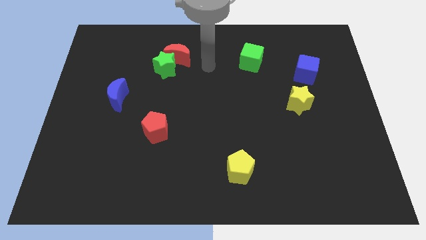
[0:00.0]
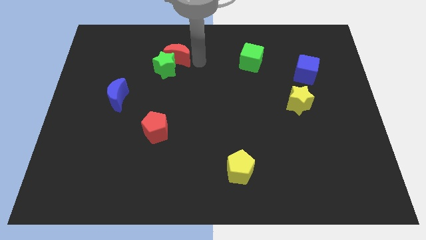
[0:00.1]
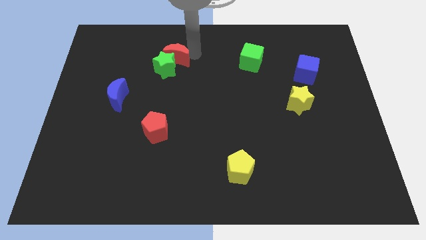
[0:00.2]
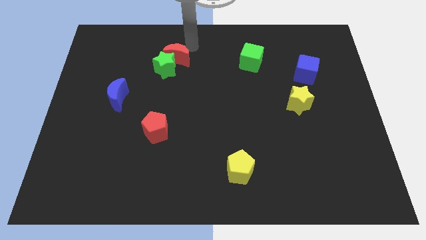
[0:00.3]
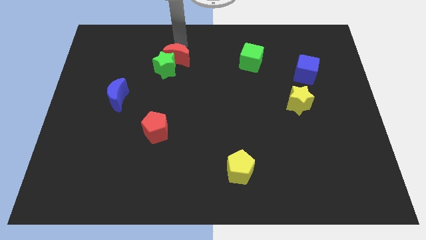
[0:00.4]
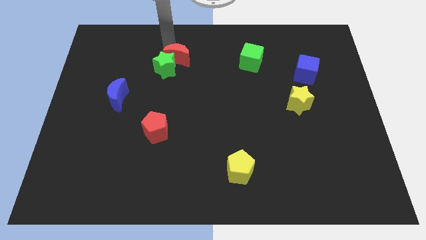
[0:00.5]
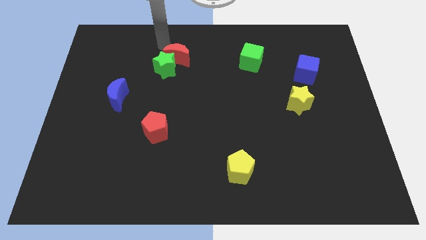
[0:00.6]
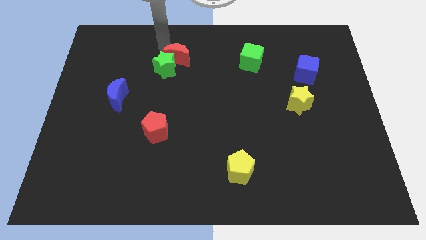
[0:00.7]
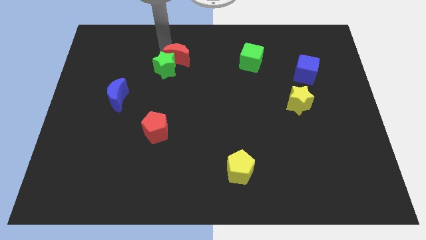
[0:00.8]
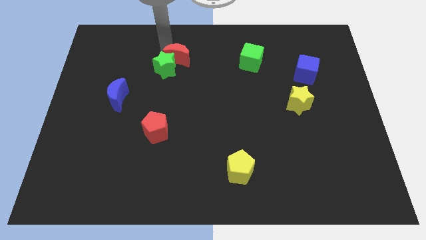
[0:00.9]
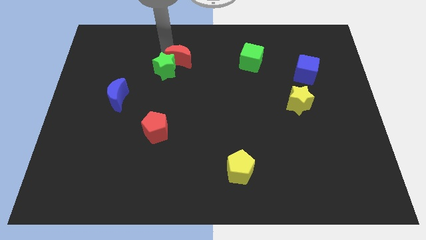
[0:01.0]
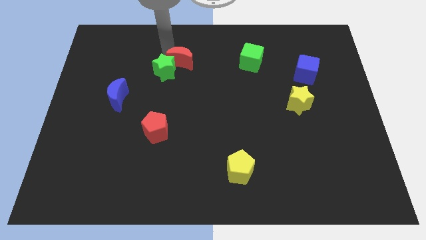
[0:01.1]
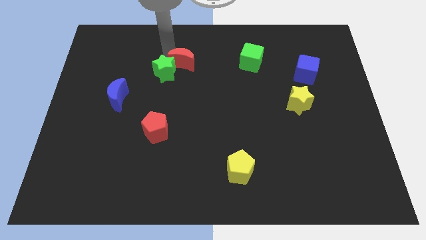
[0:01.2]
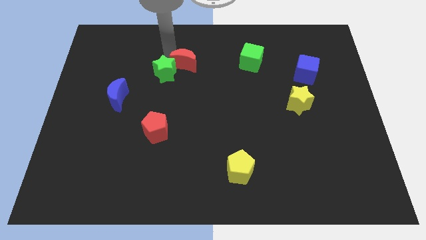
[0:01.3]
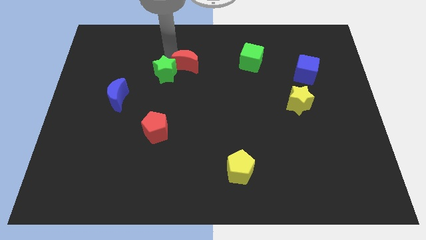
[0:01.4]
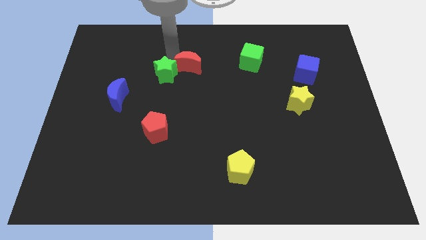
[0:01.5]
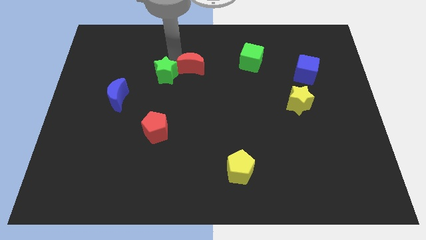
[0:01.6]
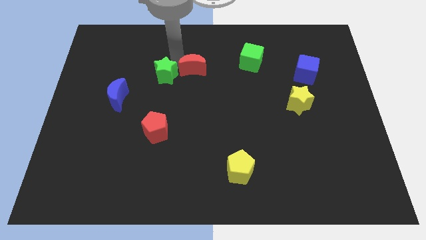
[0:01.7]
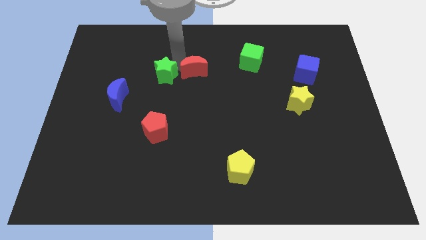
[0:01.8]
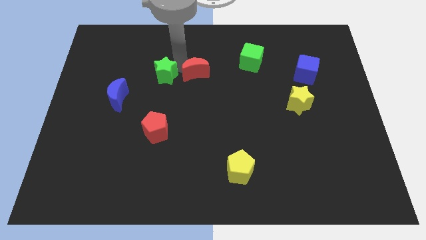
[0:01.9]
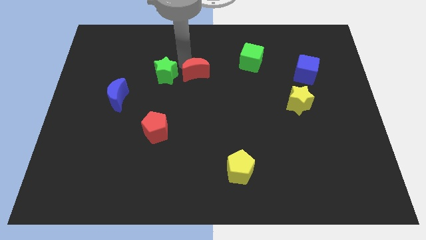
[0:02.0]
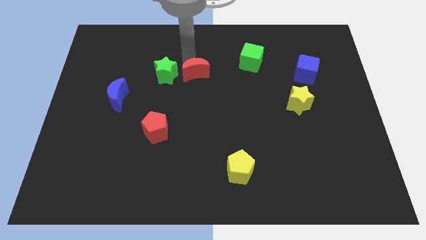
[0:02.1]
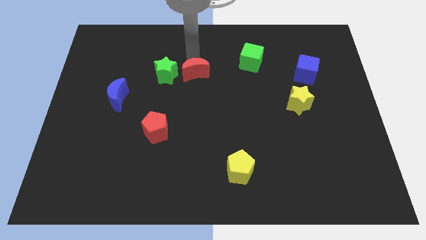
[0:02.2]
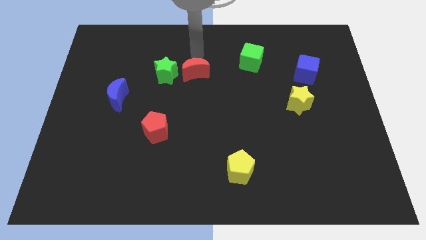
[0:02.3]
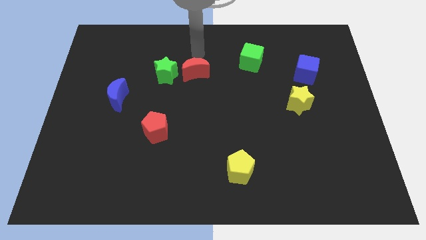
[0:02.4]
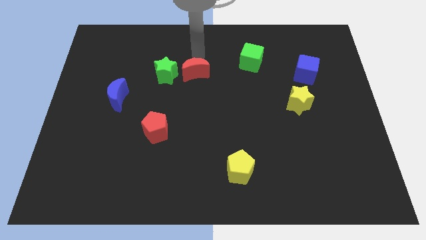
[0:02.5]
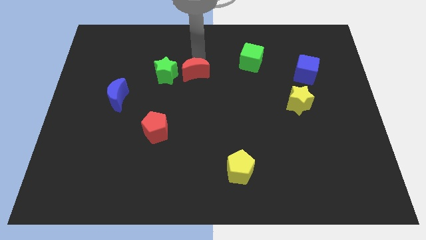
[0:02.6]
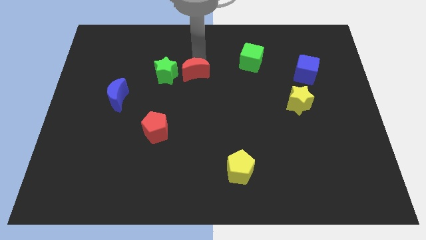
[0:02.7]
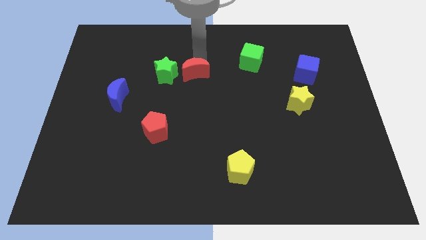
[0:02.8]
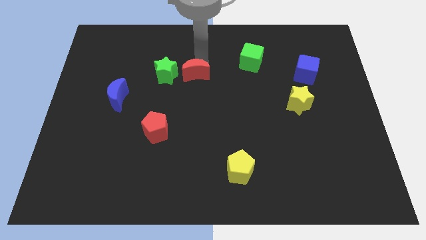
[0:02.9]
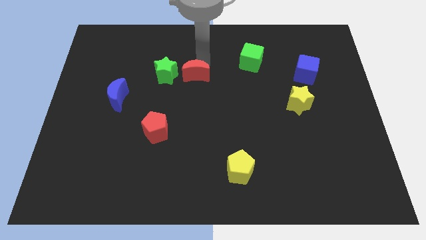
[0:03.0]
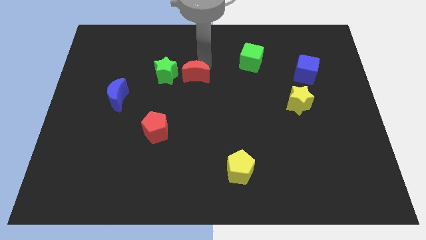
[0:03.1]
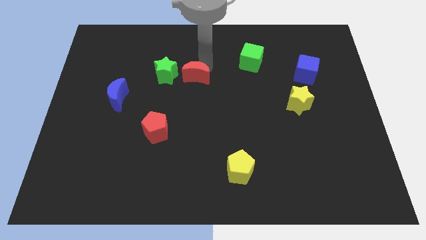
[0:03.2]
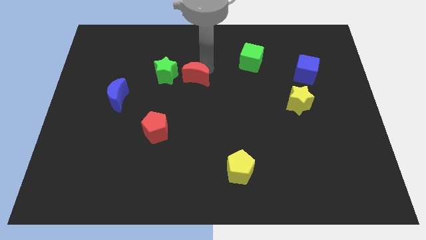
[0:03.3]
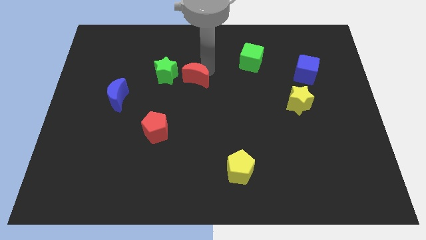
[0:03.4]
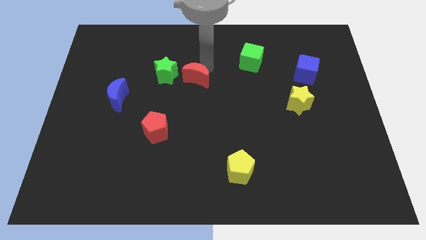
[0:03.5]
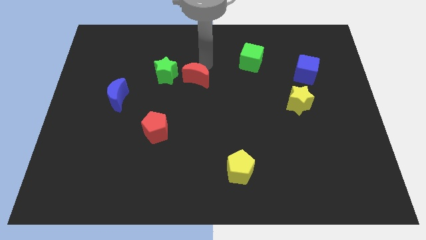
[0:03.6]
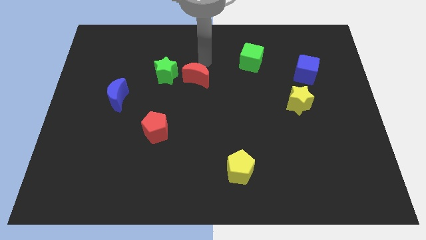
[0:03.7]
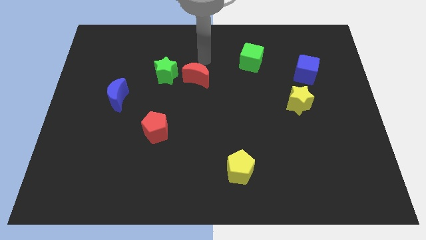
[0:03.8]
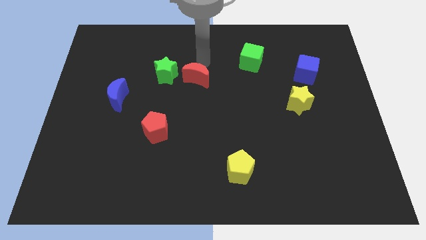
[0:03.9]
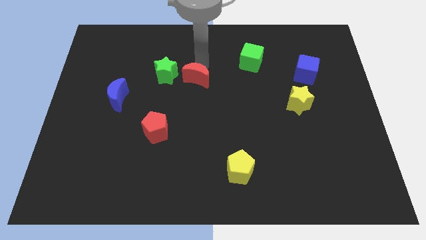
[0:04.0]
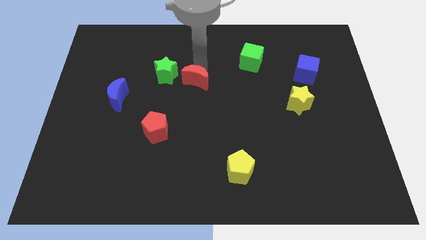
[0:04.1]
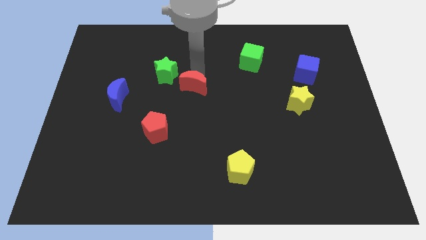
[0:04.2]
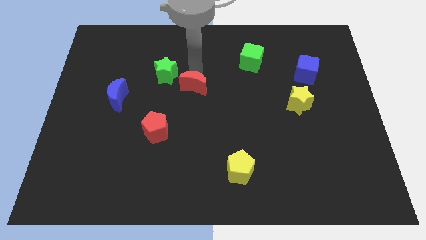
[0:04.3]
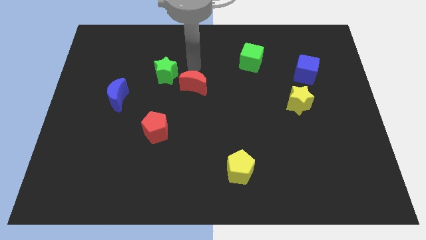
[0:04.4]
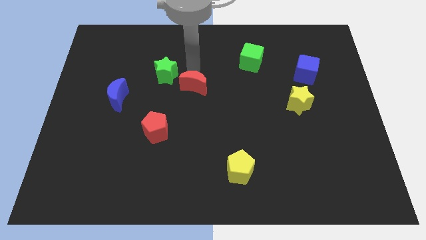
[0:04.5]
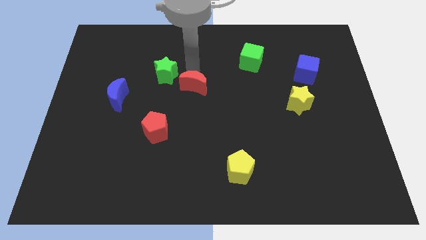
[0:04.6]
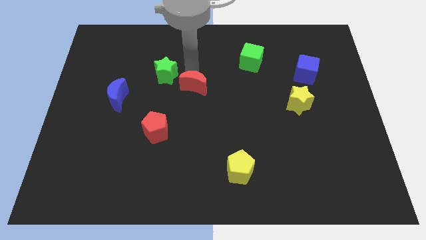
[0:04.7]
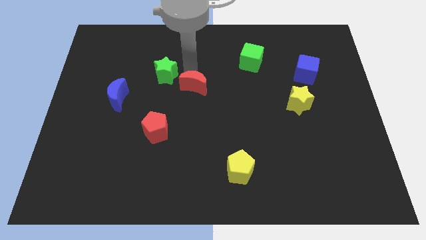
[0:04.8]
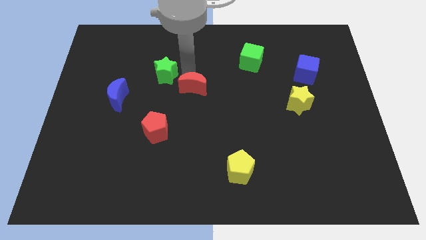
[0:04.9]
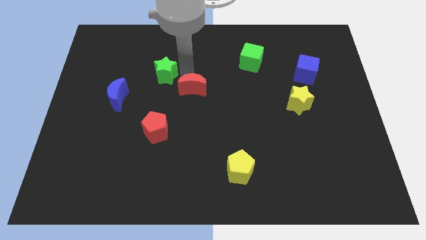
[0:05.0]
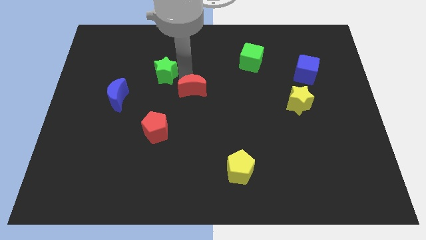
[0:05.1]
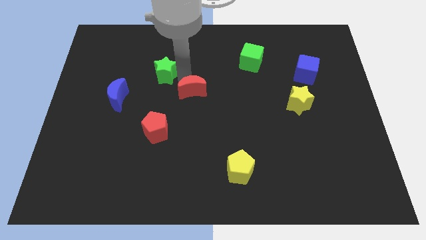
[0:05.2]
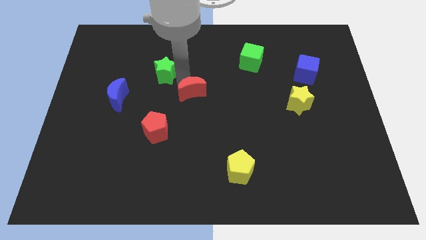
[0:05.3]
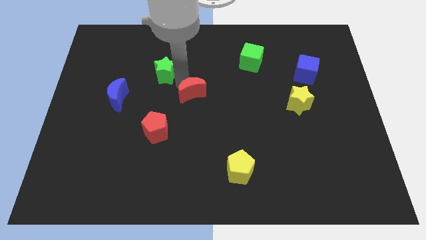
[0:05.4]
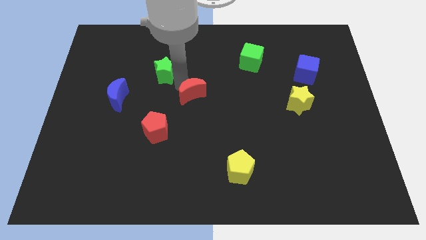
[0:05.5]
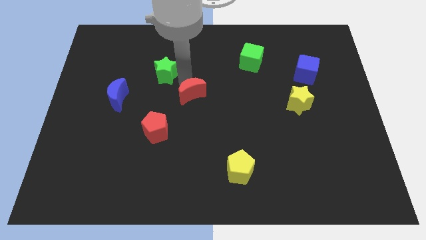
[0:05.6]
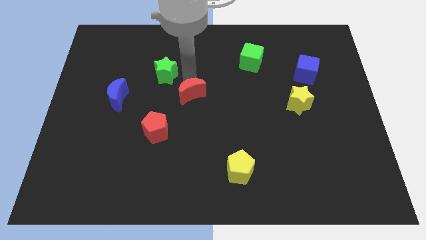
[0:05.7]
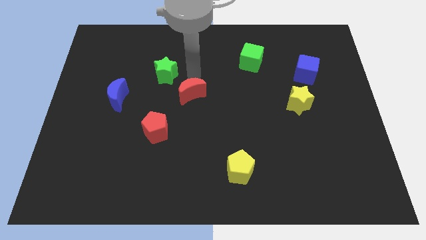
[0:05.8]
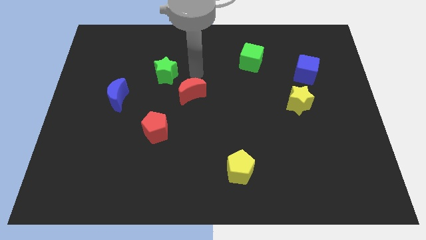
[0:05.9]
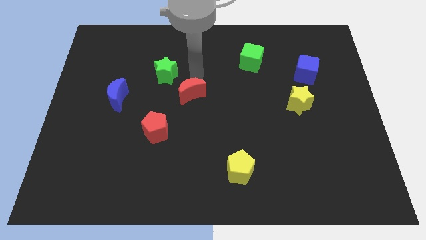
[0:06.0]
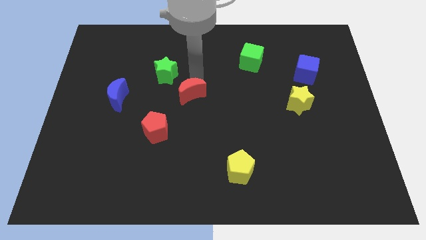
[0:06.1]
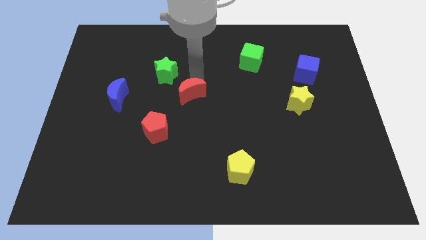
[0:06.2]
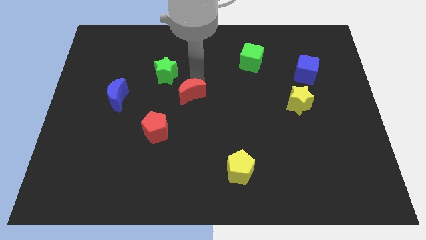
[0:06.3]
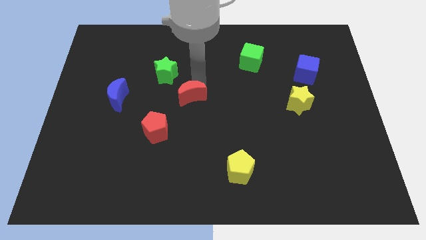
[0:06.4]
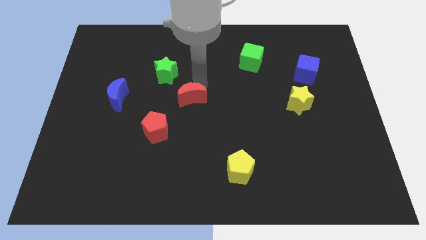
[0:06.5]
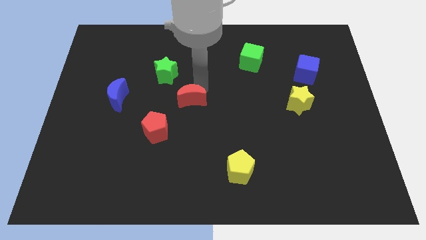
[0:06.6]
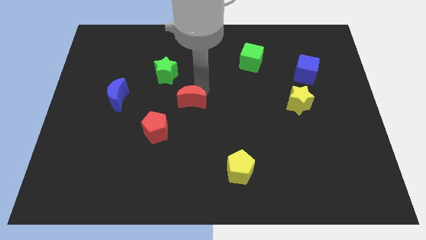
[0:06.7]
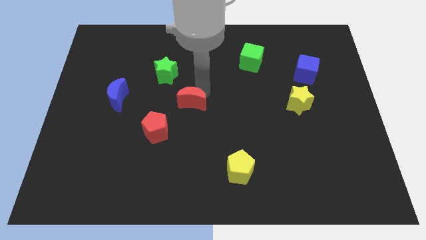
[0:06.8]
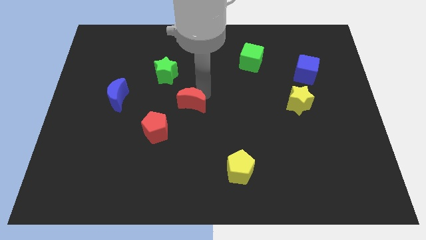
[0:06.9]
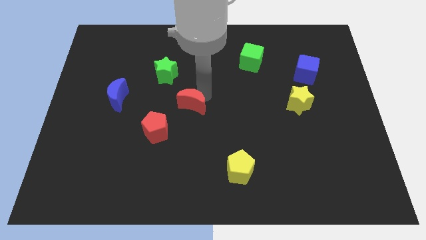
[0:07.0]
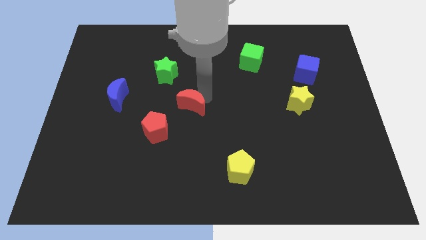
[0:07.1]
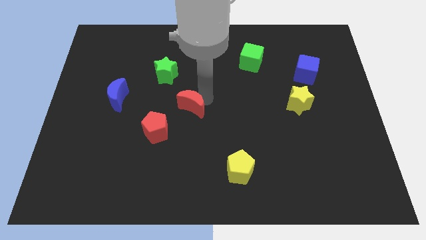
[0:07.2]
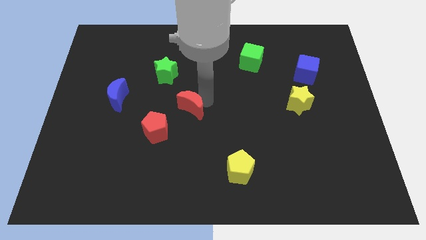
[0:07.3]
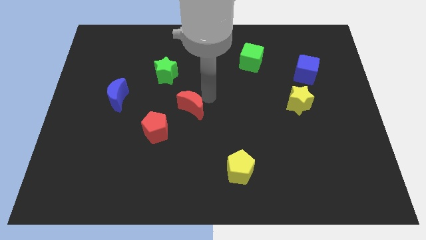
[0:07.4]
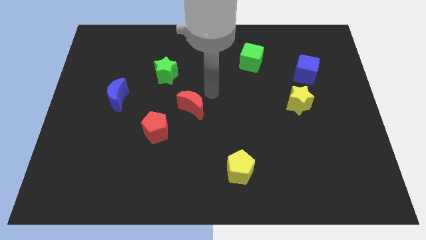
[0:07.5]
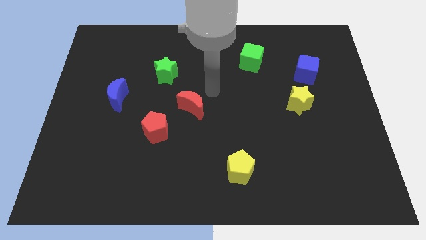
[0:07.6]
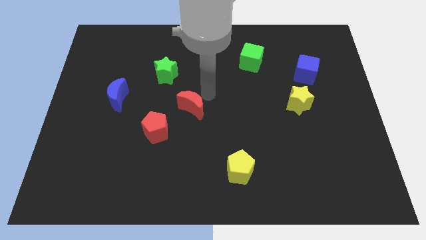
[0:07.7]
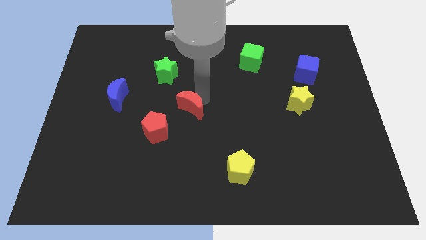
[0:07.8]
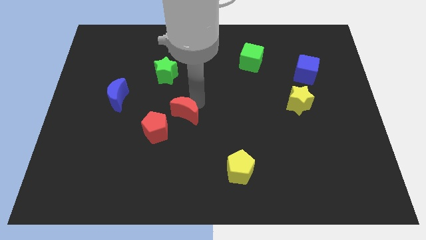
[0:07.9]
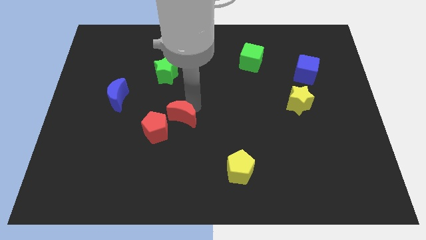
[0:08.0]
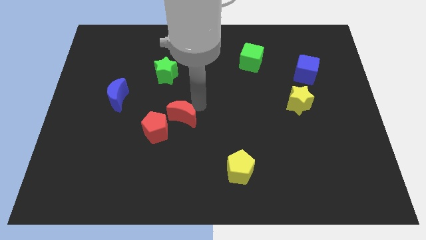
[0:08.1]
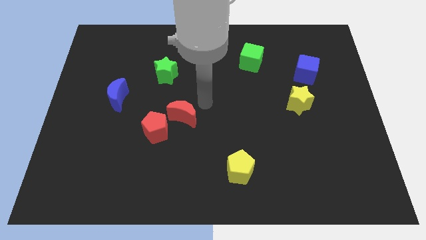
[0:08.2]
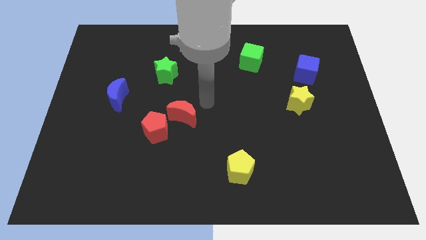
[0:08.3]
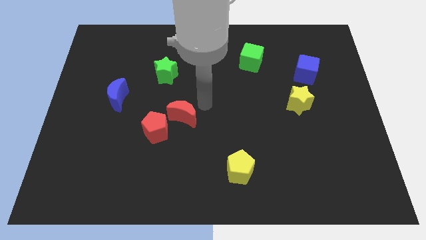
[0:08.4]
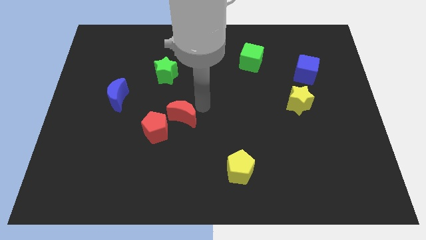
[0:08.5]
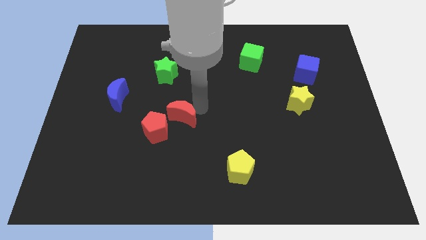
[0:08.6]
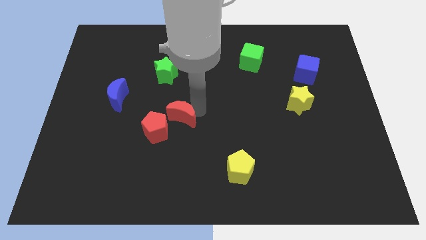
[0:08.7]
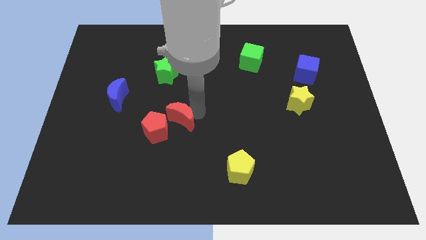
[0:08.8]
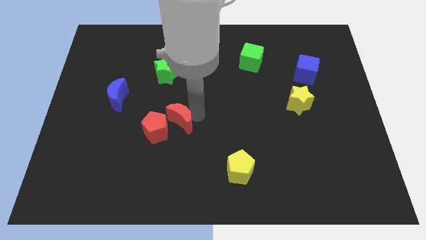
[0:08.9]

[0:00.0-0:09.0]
move the red moon close to the red pentagon
